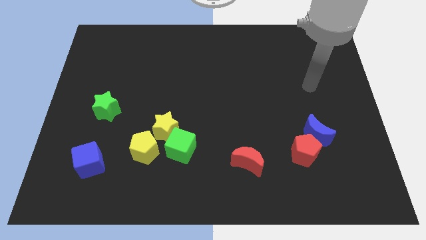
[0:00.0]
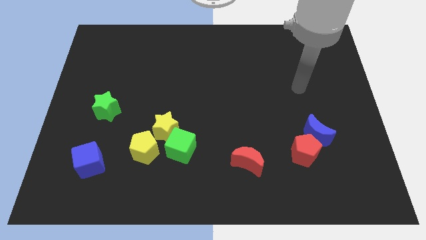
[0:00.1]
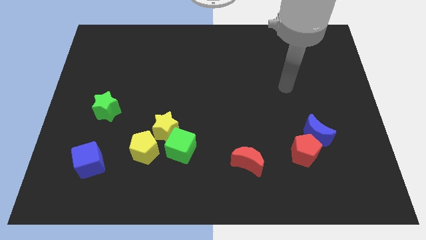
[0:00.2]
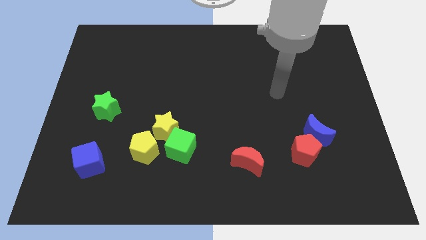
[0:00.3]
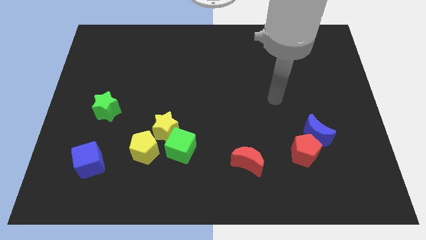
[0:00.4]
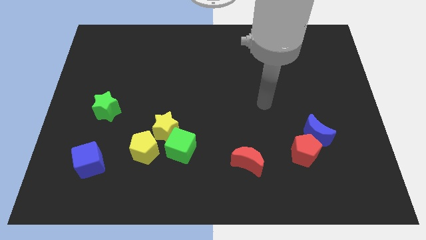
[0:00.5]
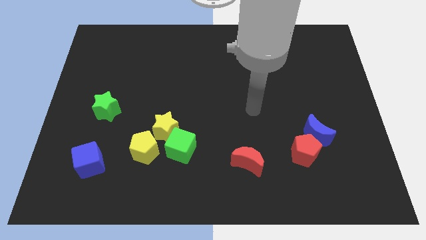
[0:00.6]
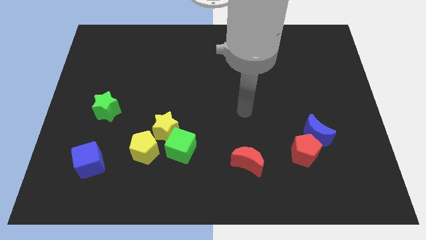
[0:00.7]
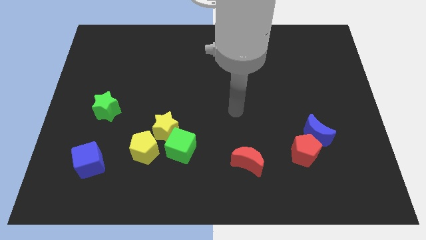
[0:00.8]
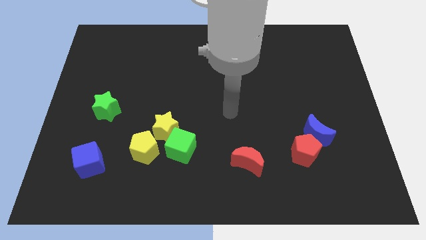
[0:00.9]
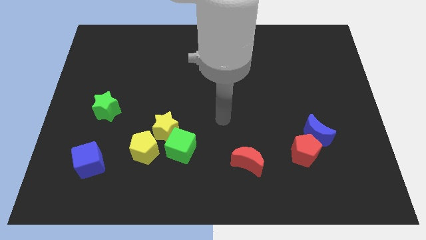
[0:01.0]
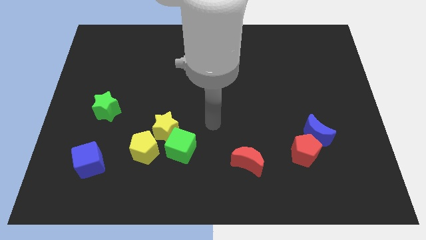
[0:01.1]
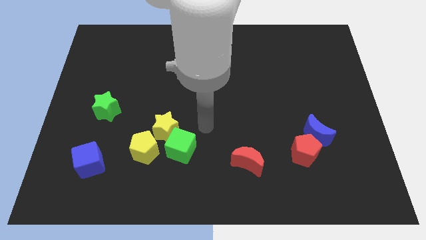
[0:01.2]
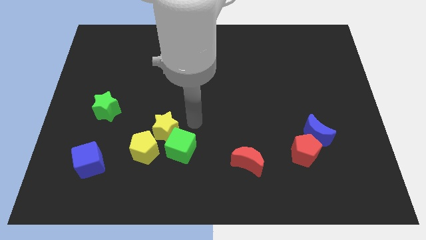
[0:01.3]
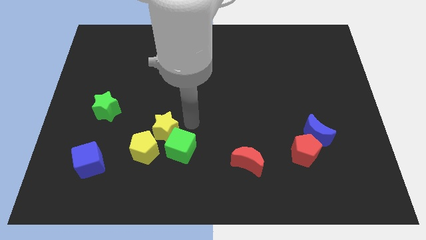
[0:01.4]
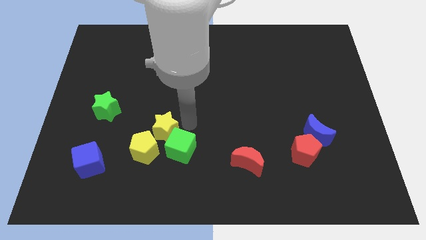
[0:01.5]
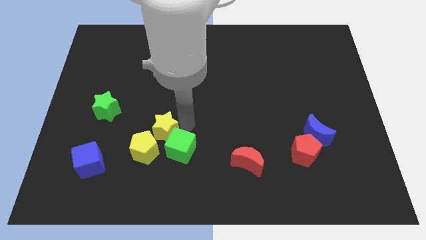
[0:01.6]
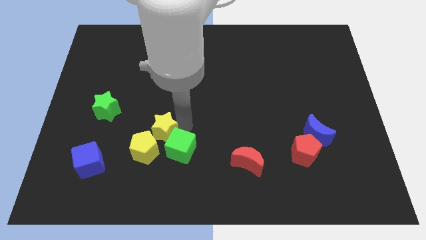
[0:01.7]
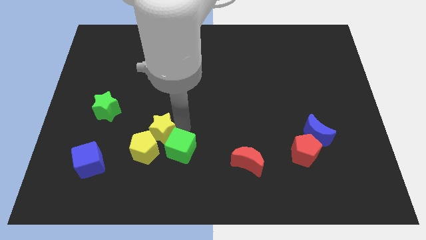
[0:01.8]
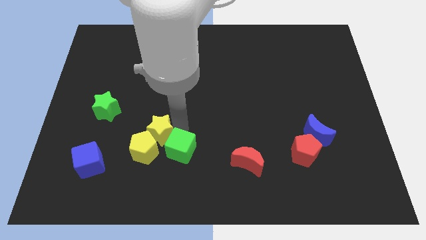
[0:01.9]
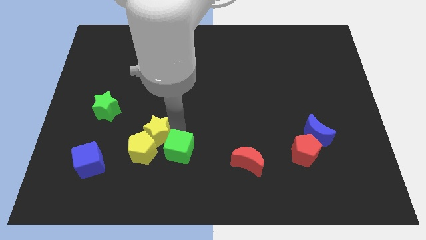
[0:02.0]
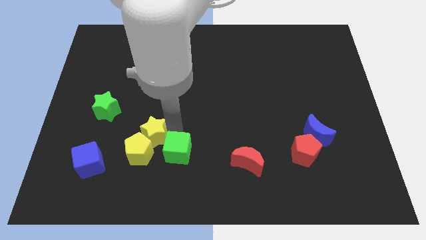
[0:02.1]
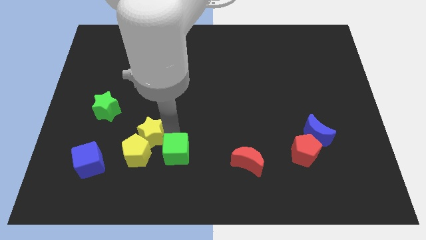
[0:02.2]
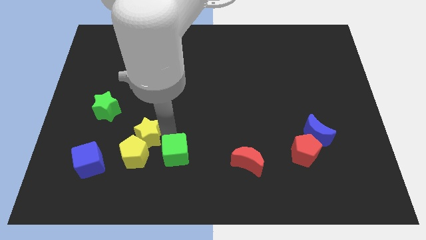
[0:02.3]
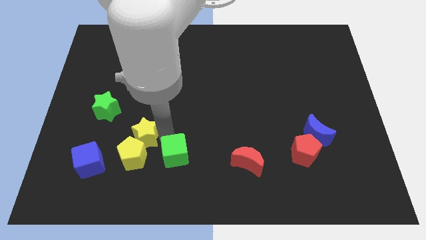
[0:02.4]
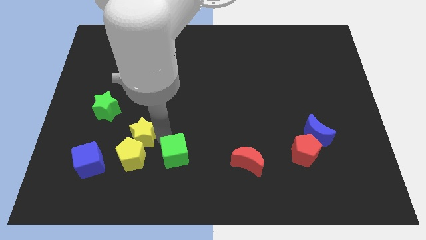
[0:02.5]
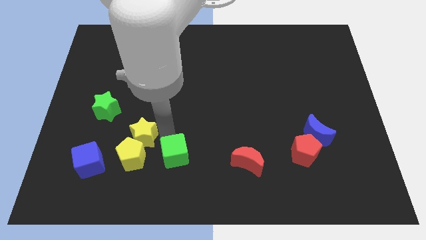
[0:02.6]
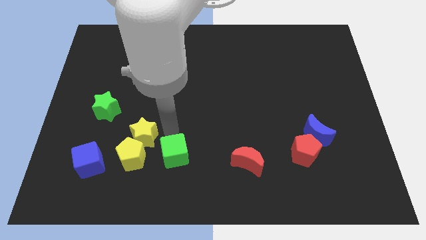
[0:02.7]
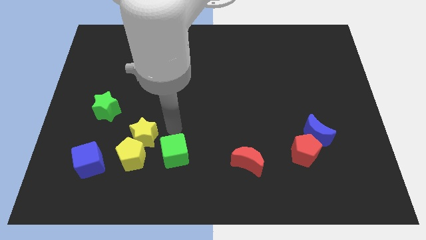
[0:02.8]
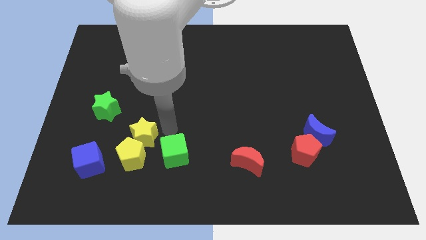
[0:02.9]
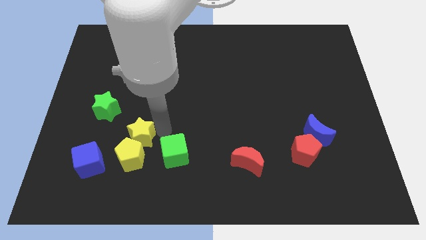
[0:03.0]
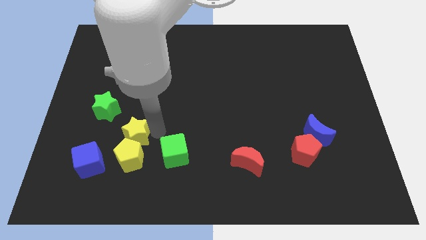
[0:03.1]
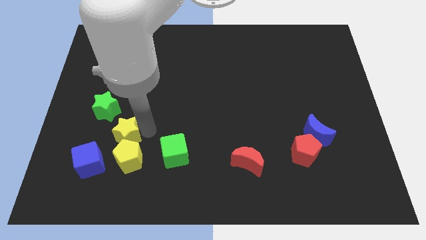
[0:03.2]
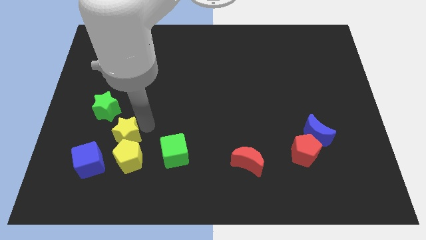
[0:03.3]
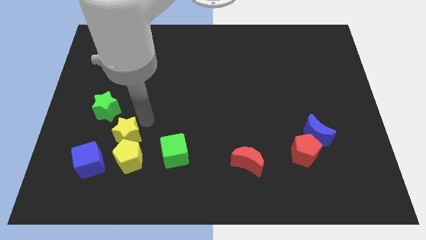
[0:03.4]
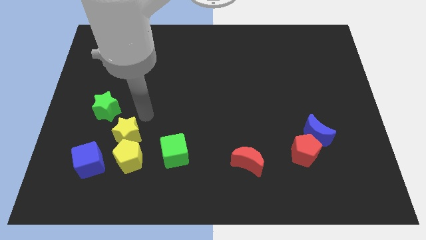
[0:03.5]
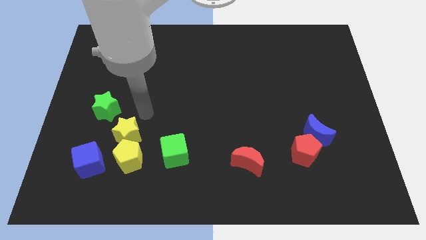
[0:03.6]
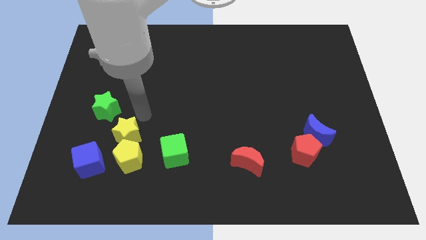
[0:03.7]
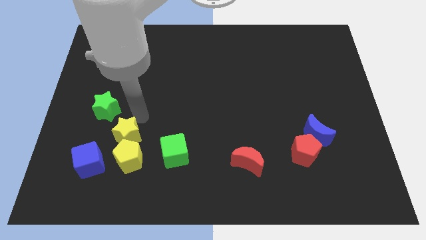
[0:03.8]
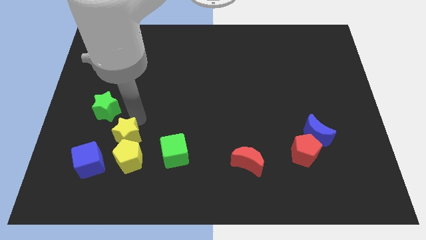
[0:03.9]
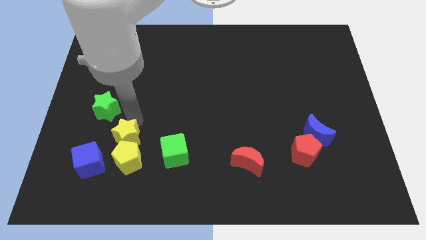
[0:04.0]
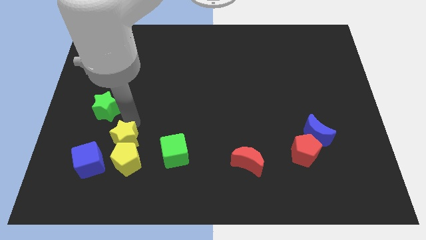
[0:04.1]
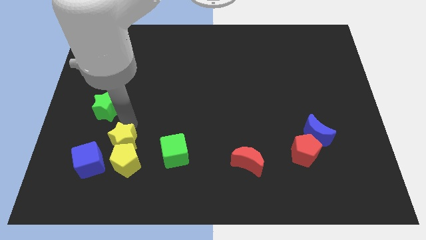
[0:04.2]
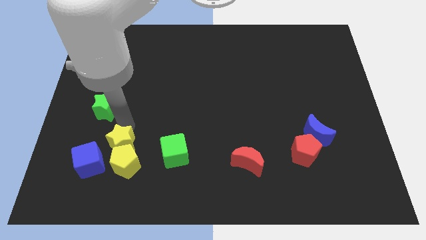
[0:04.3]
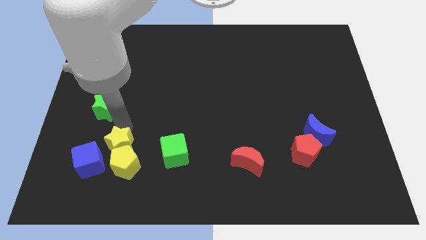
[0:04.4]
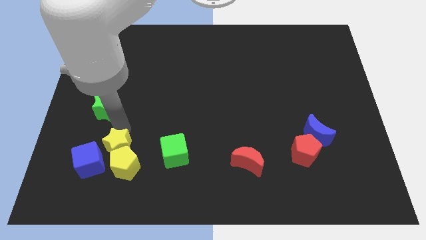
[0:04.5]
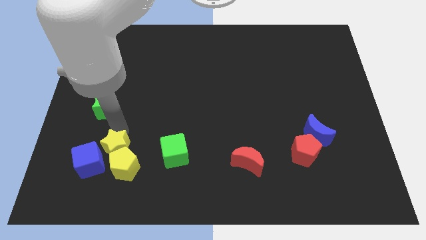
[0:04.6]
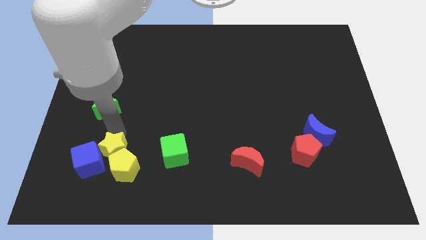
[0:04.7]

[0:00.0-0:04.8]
move the yellow star close to the blue cube

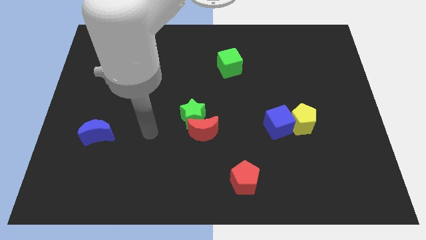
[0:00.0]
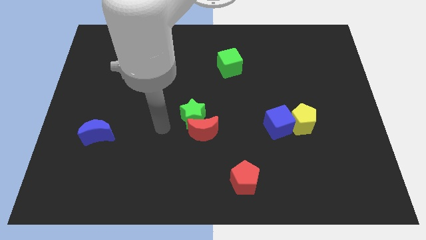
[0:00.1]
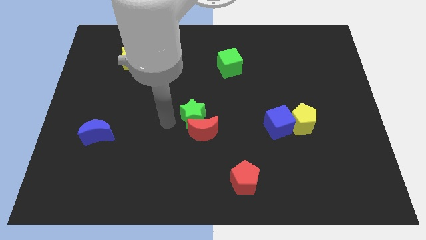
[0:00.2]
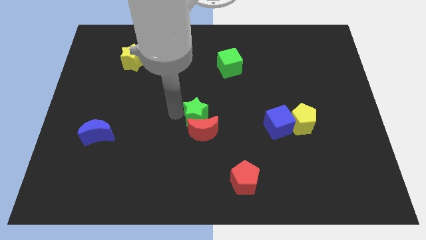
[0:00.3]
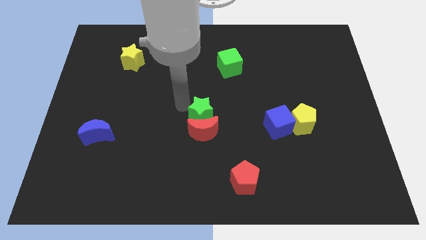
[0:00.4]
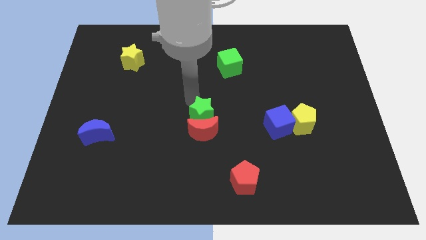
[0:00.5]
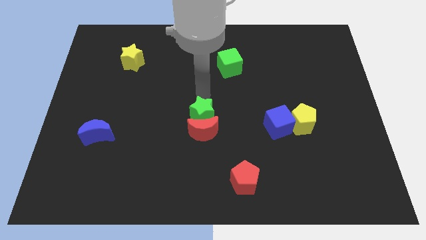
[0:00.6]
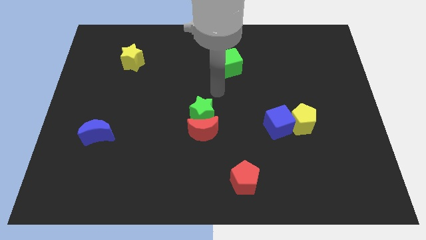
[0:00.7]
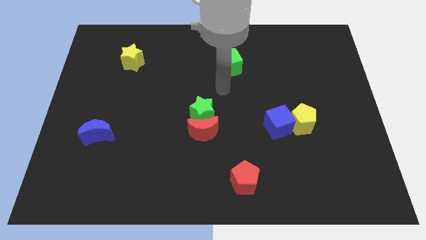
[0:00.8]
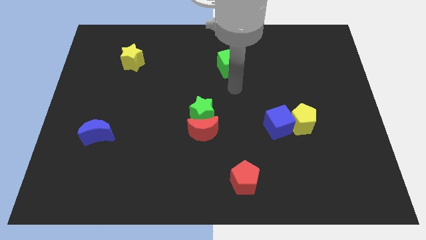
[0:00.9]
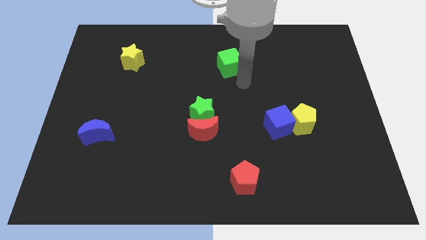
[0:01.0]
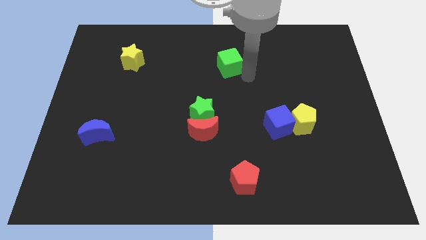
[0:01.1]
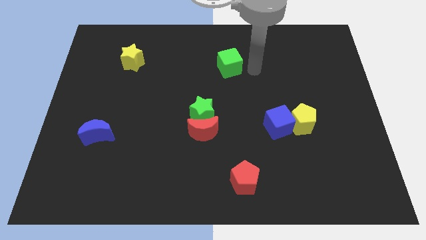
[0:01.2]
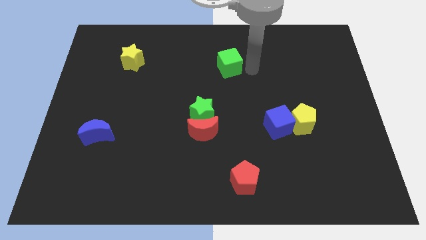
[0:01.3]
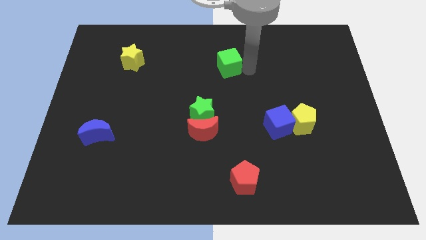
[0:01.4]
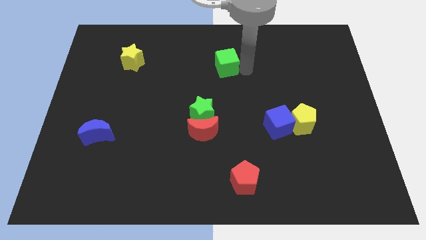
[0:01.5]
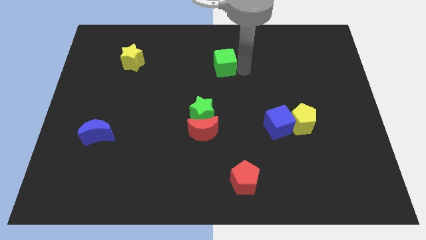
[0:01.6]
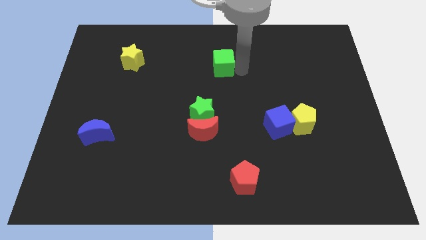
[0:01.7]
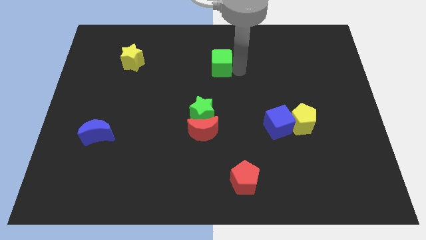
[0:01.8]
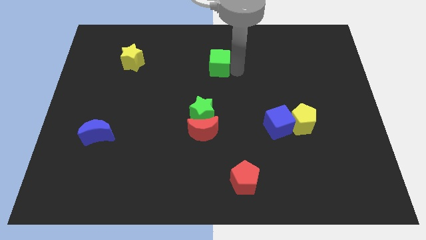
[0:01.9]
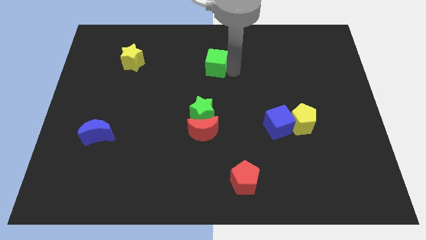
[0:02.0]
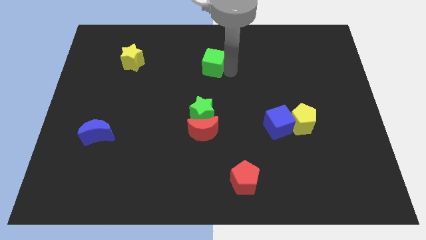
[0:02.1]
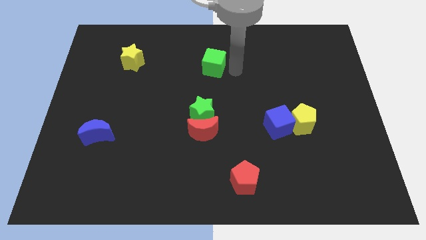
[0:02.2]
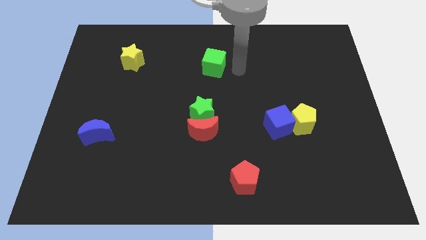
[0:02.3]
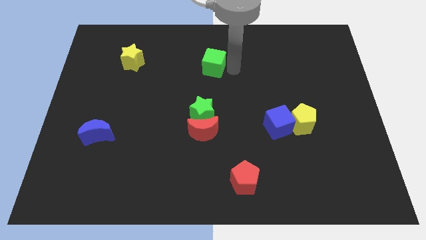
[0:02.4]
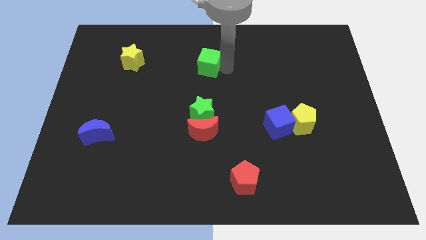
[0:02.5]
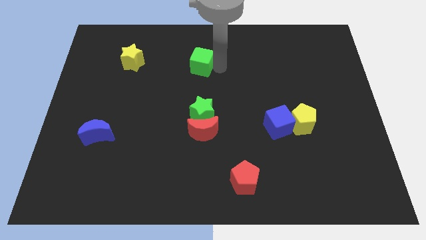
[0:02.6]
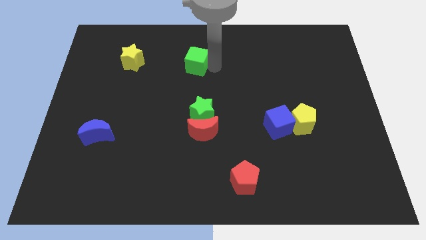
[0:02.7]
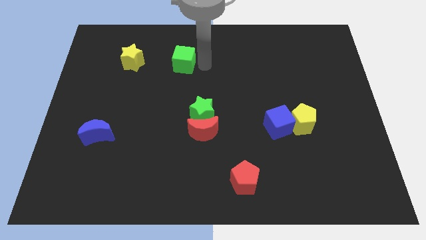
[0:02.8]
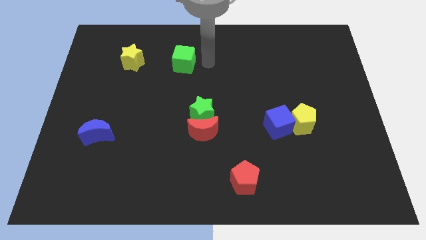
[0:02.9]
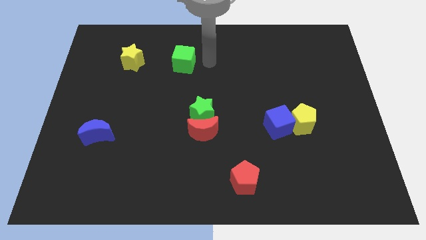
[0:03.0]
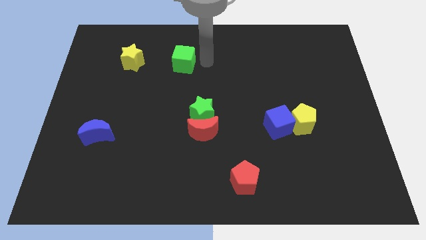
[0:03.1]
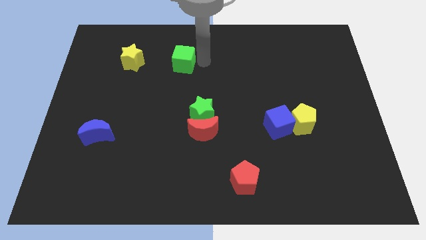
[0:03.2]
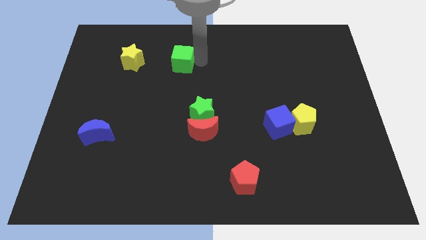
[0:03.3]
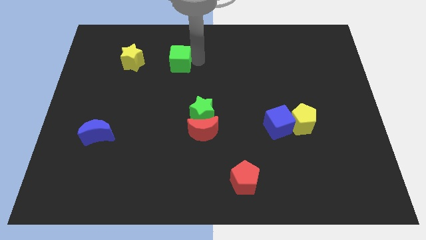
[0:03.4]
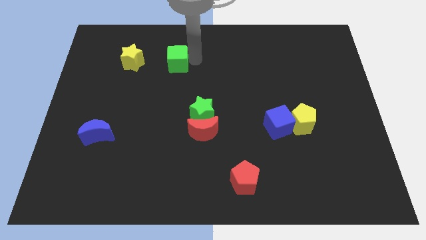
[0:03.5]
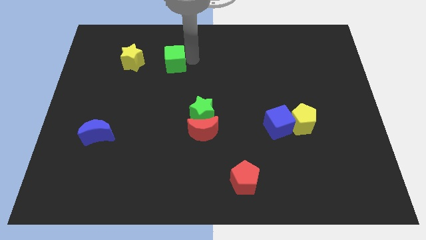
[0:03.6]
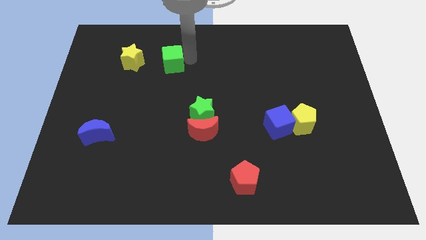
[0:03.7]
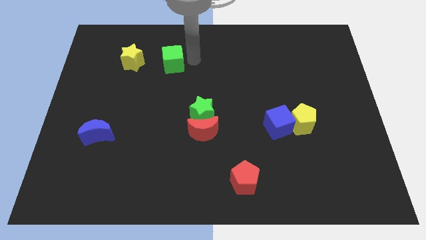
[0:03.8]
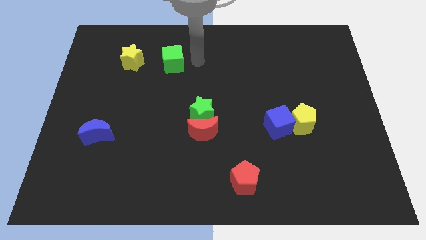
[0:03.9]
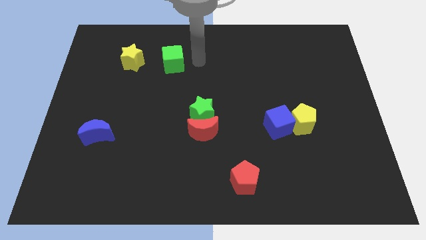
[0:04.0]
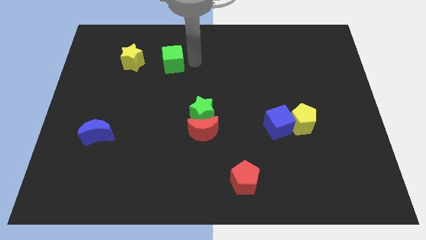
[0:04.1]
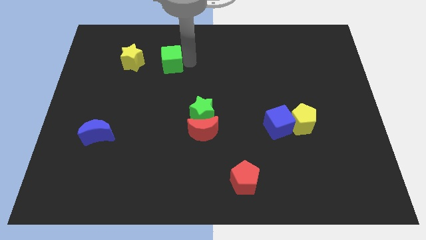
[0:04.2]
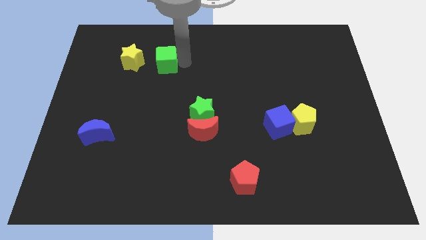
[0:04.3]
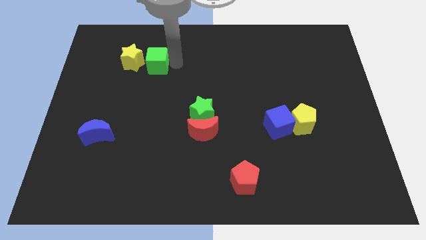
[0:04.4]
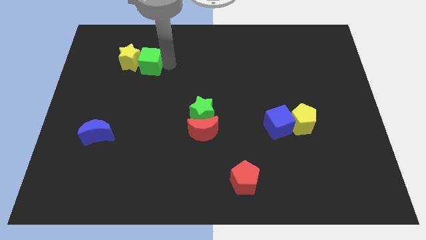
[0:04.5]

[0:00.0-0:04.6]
push the green cube next to the yellow star
